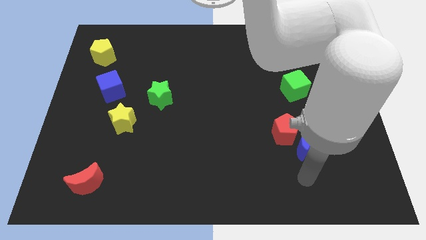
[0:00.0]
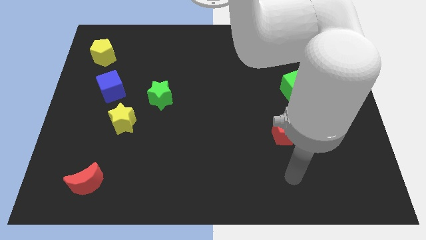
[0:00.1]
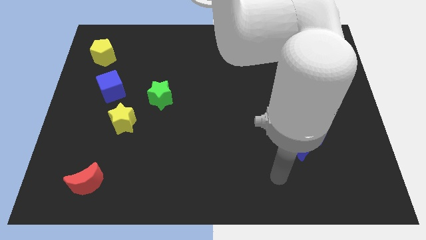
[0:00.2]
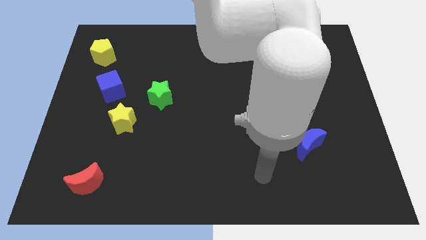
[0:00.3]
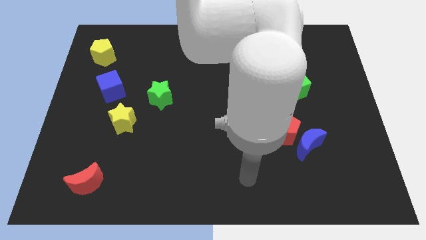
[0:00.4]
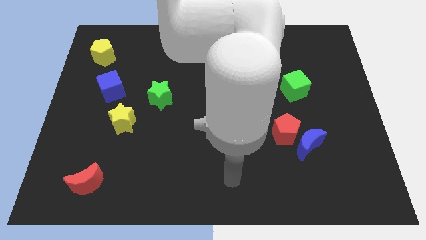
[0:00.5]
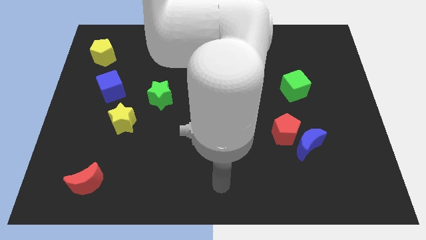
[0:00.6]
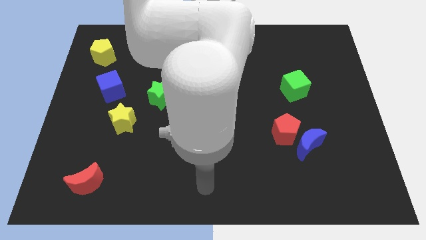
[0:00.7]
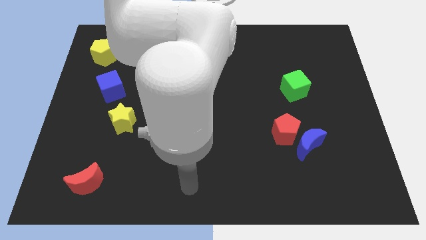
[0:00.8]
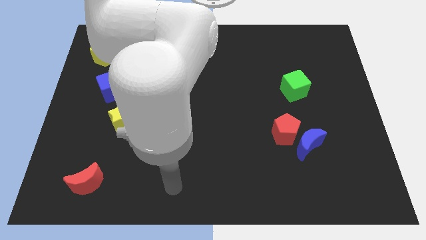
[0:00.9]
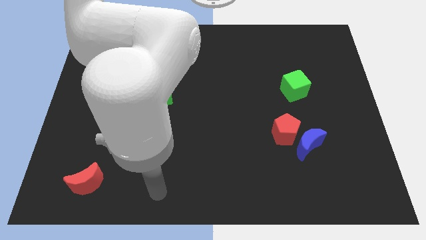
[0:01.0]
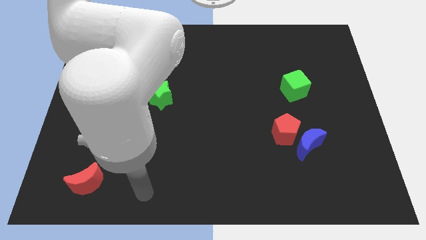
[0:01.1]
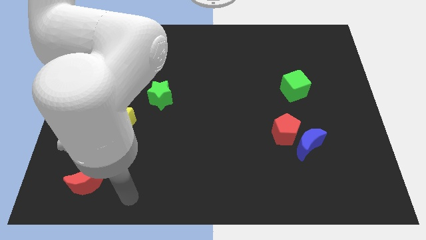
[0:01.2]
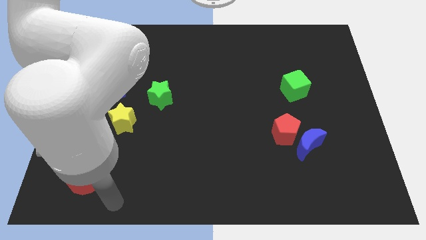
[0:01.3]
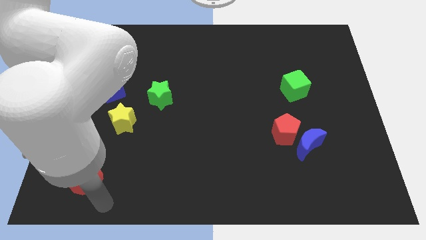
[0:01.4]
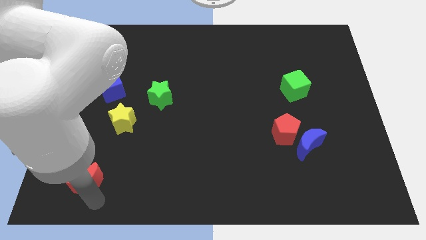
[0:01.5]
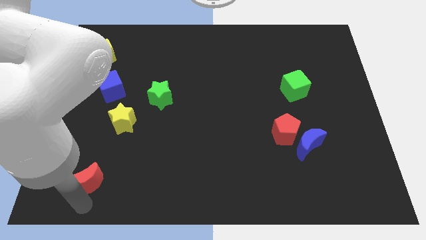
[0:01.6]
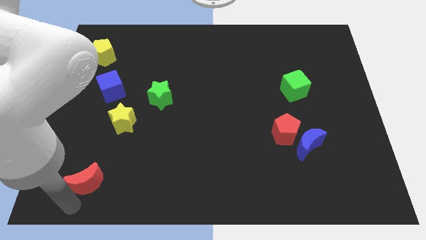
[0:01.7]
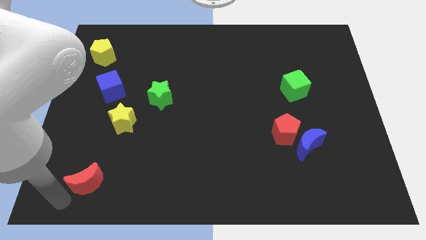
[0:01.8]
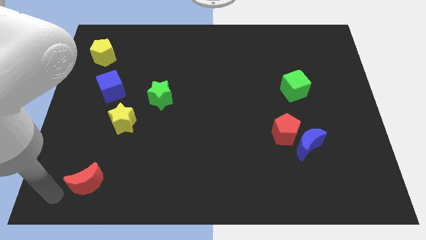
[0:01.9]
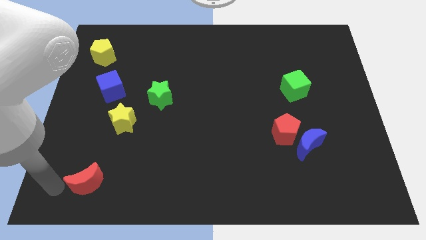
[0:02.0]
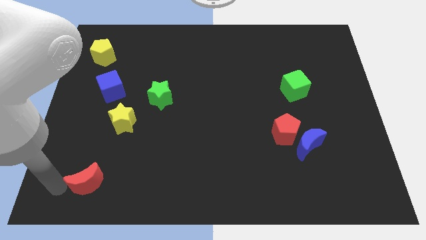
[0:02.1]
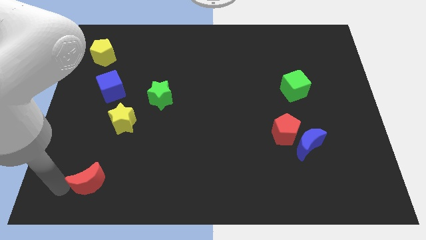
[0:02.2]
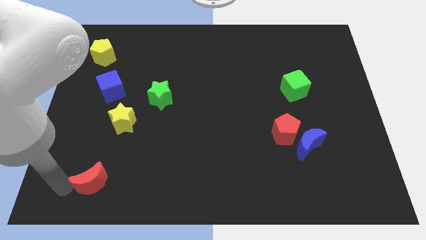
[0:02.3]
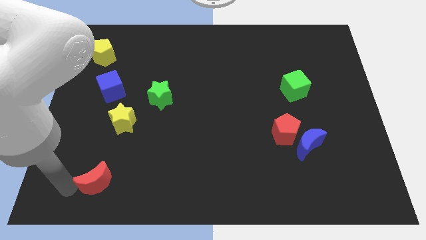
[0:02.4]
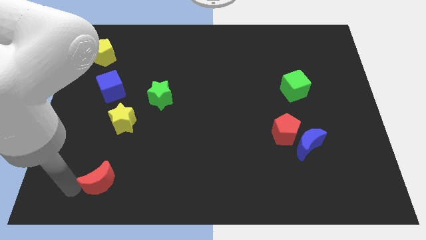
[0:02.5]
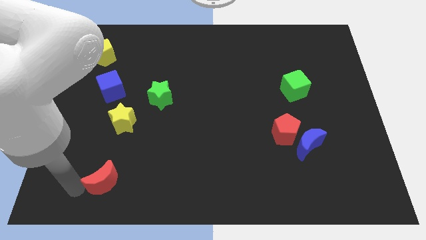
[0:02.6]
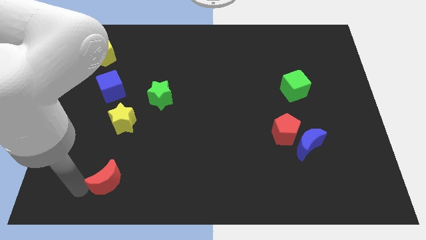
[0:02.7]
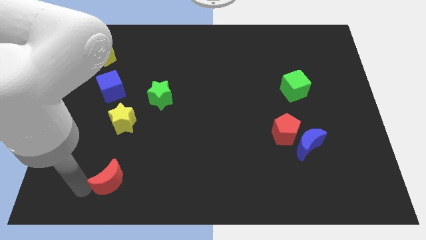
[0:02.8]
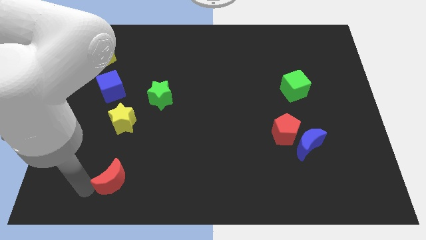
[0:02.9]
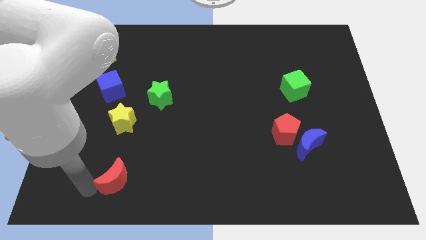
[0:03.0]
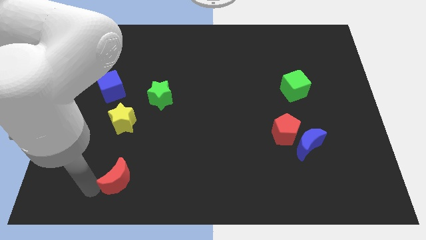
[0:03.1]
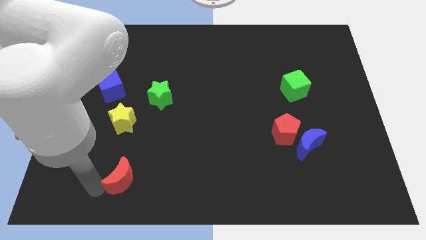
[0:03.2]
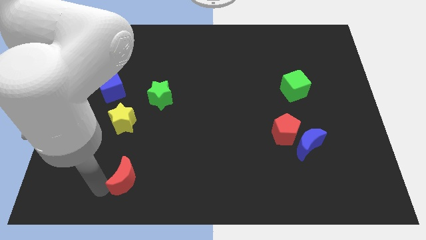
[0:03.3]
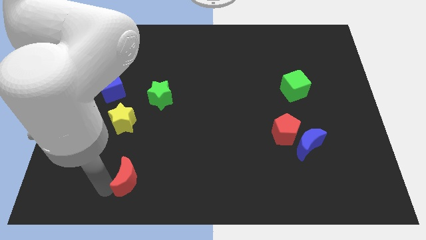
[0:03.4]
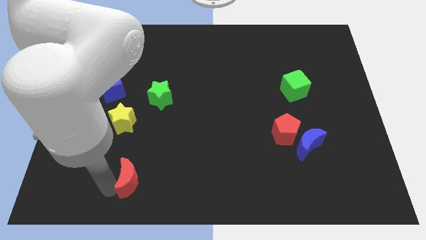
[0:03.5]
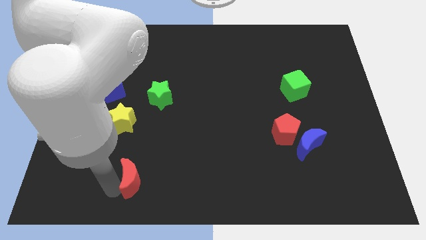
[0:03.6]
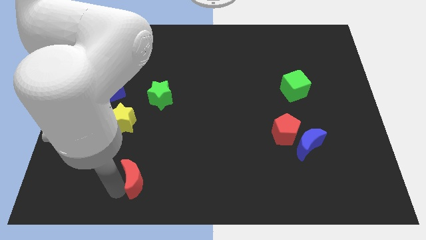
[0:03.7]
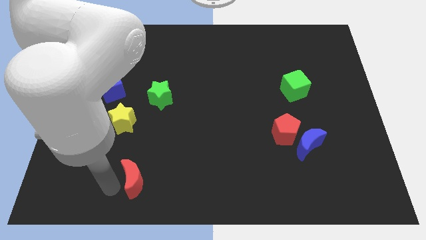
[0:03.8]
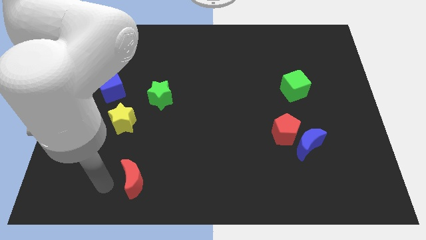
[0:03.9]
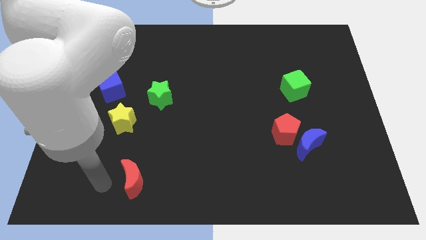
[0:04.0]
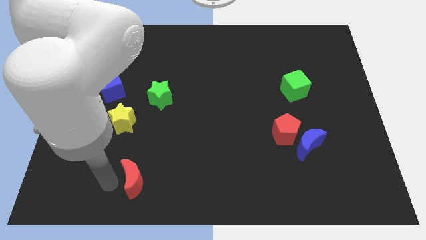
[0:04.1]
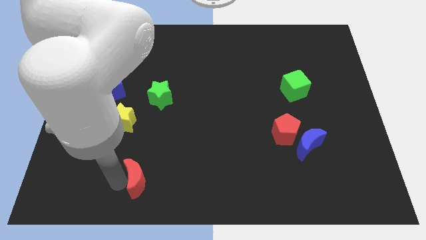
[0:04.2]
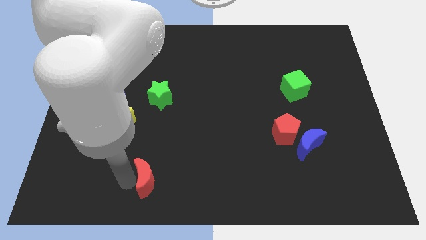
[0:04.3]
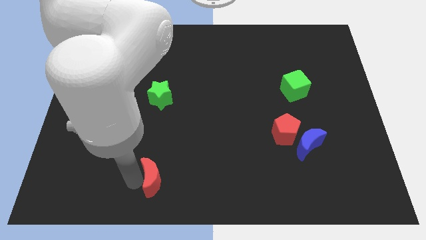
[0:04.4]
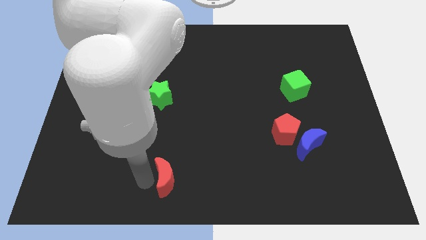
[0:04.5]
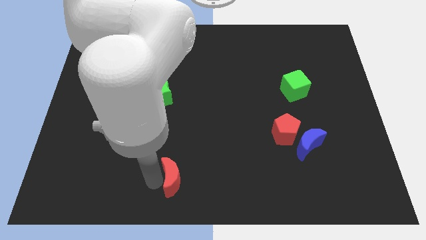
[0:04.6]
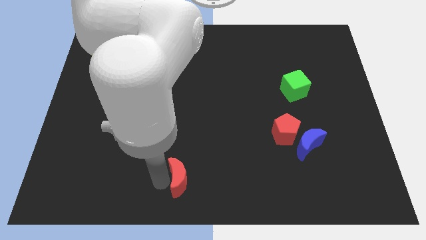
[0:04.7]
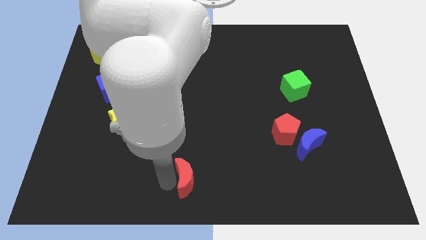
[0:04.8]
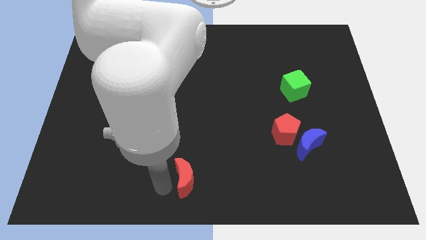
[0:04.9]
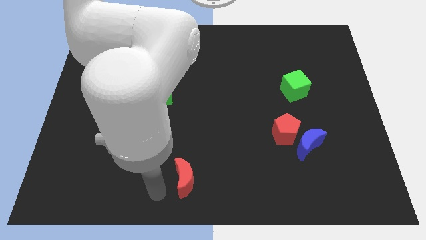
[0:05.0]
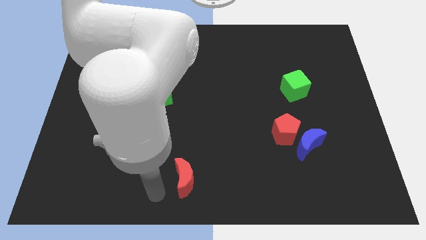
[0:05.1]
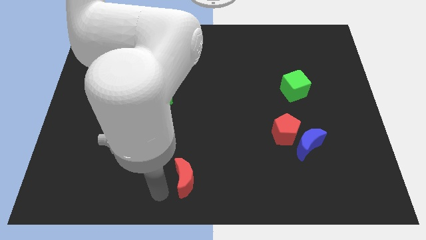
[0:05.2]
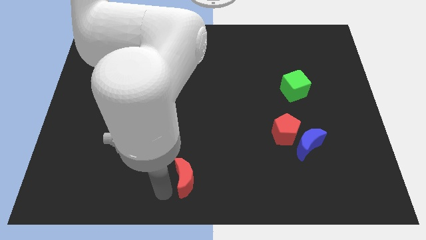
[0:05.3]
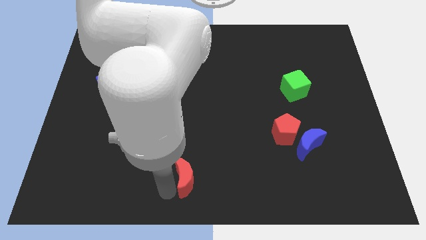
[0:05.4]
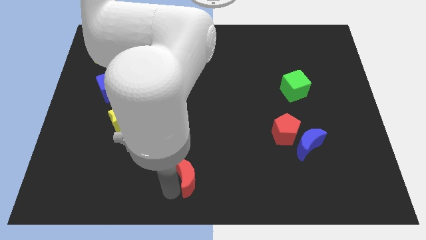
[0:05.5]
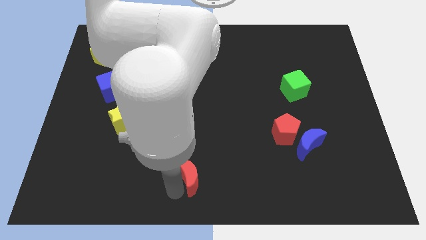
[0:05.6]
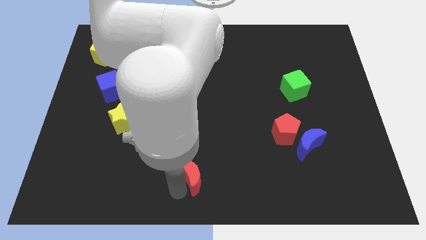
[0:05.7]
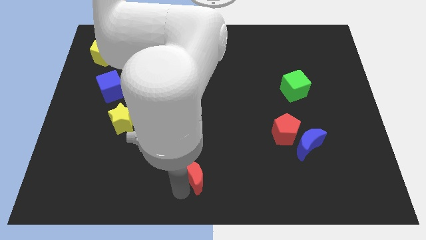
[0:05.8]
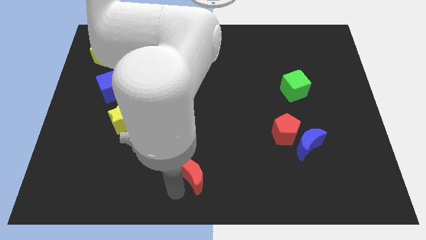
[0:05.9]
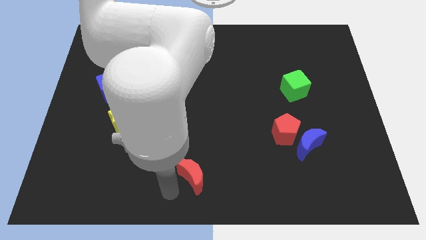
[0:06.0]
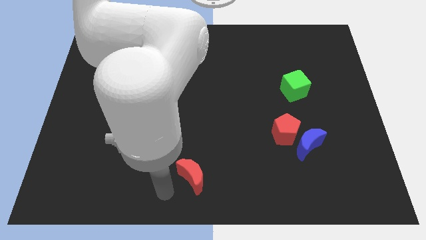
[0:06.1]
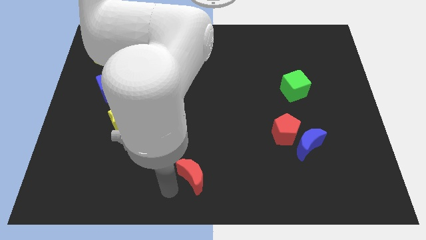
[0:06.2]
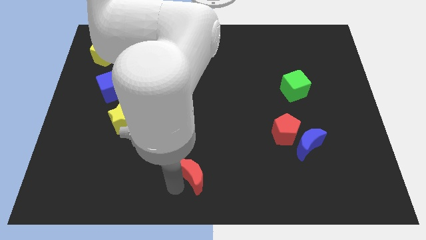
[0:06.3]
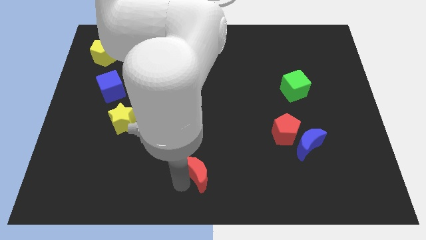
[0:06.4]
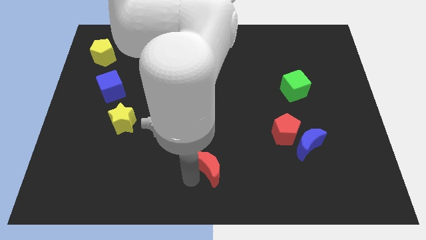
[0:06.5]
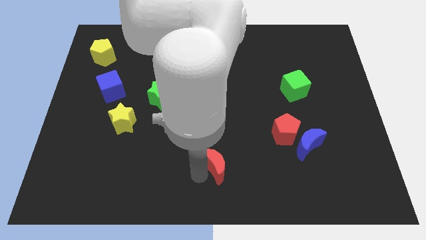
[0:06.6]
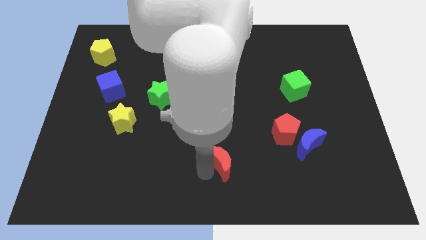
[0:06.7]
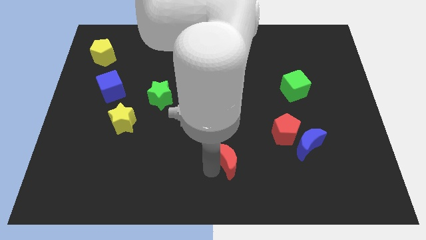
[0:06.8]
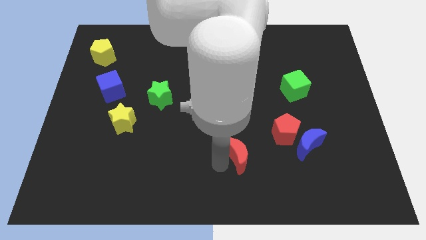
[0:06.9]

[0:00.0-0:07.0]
put the red moon to the bottom left of the red pentagon

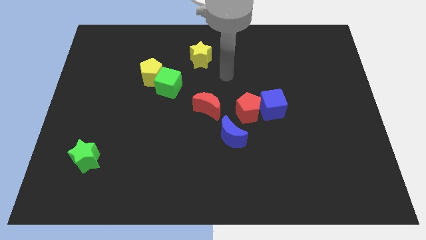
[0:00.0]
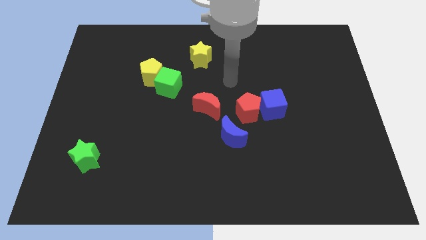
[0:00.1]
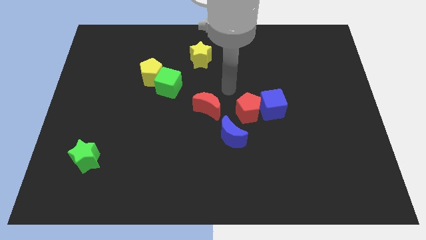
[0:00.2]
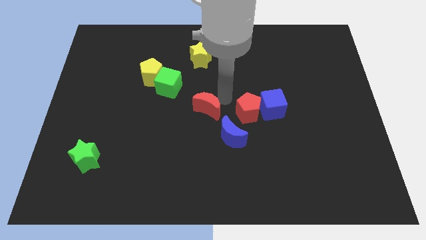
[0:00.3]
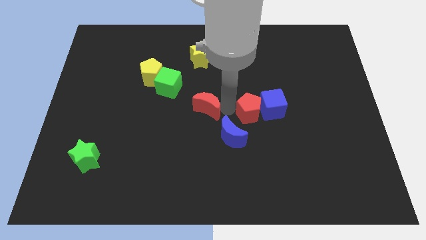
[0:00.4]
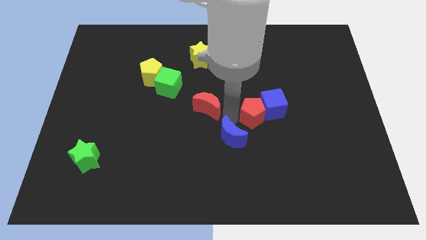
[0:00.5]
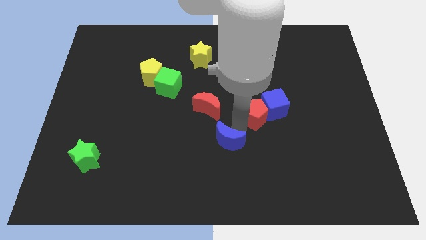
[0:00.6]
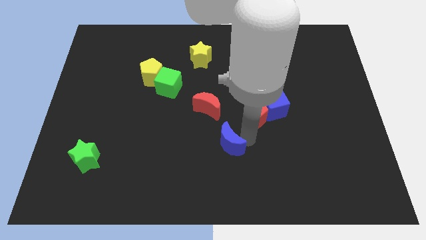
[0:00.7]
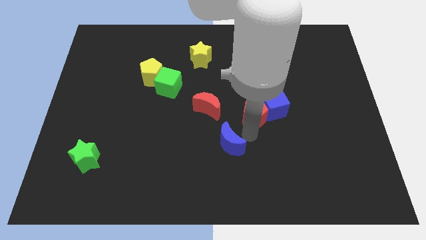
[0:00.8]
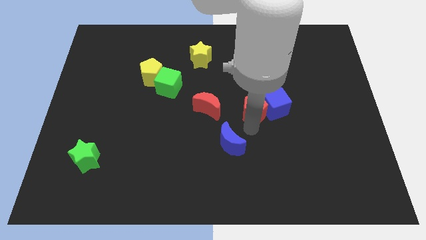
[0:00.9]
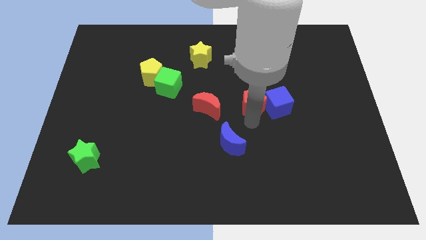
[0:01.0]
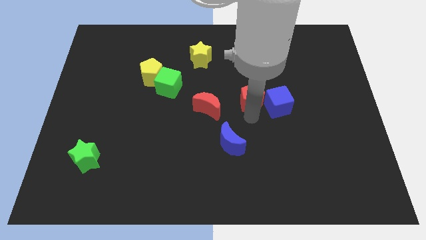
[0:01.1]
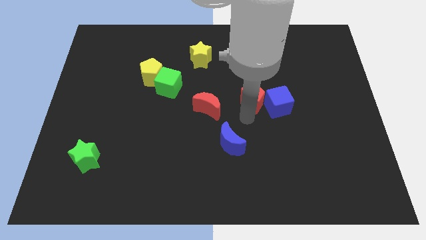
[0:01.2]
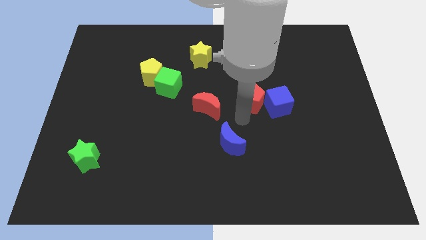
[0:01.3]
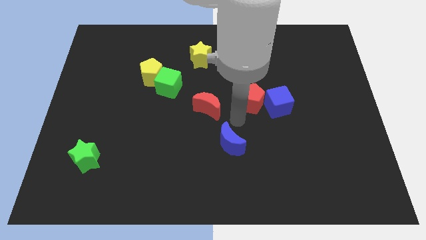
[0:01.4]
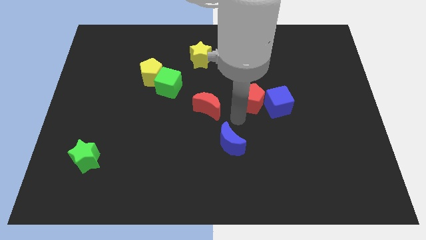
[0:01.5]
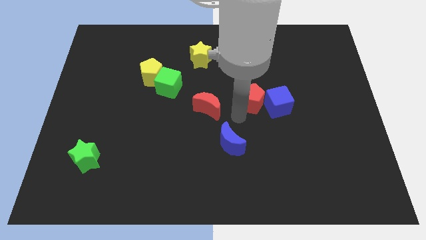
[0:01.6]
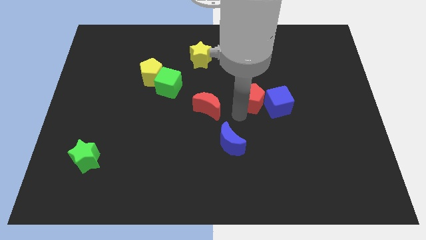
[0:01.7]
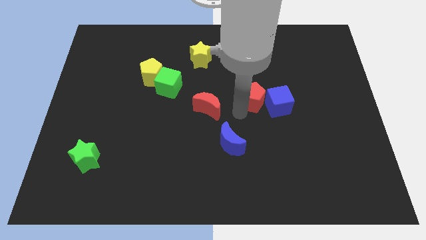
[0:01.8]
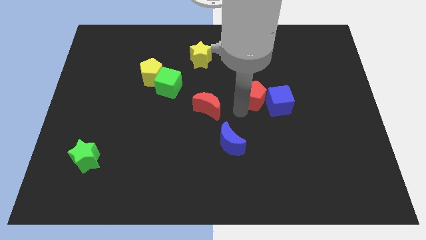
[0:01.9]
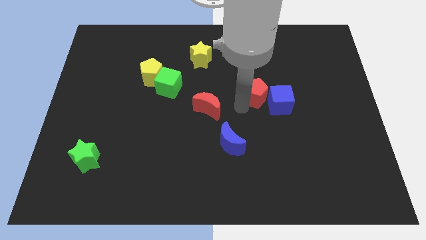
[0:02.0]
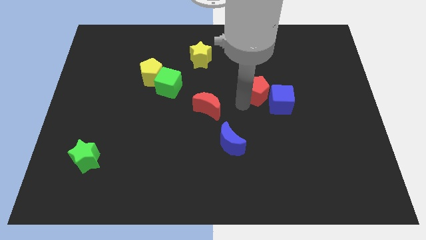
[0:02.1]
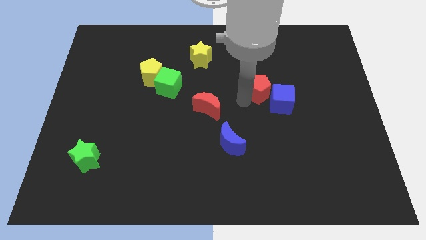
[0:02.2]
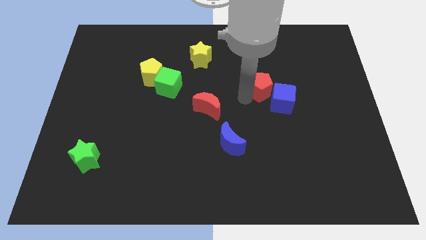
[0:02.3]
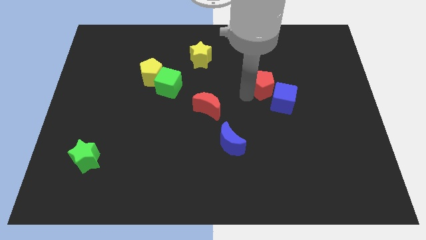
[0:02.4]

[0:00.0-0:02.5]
push the red pentagon to the top of the blue cube
